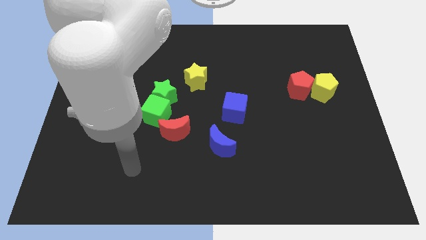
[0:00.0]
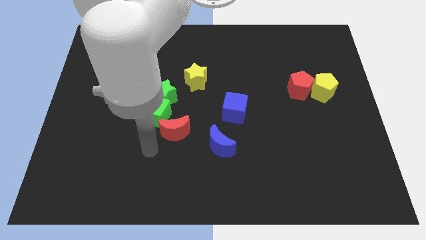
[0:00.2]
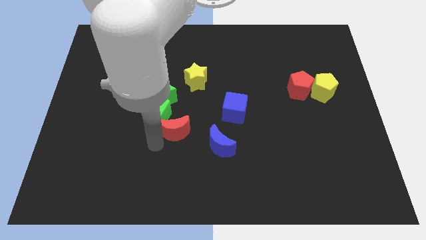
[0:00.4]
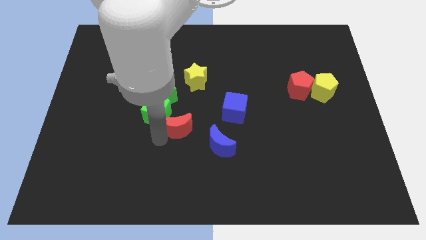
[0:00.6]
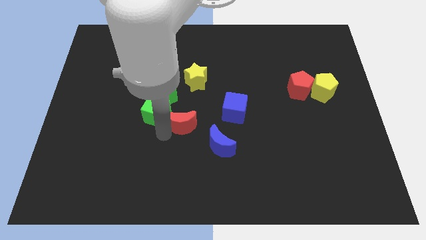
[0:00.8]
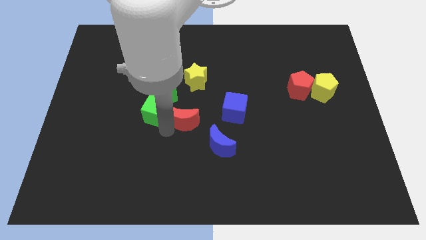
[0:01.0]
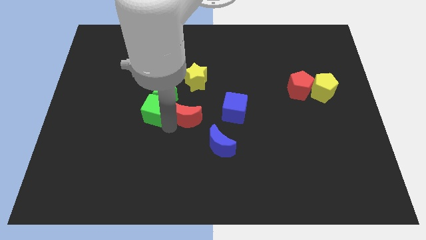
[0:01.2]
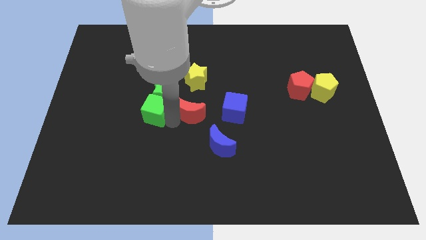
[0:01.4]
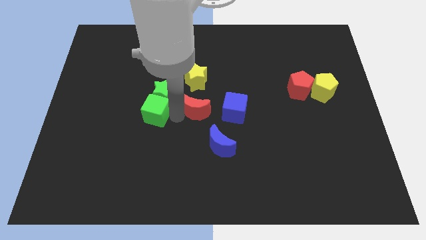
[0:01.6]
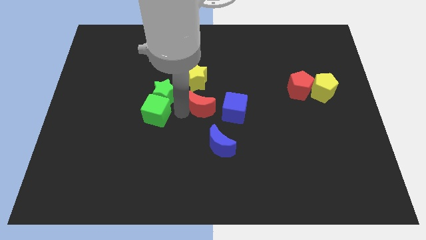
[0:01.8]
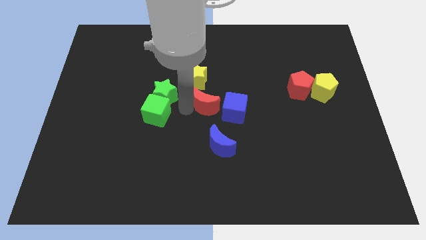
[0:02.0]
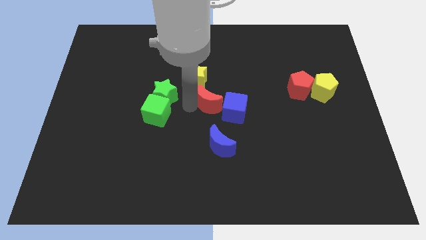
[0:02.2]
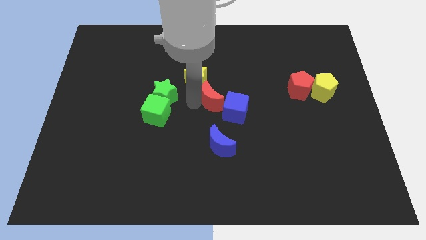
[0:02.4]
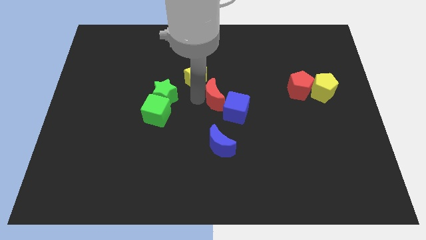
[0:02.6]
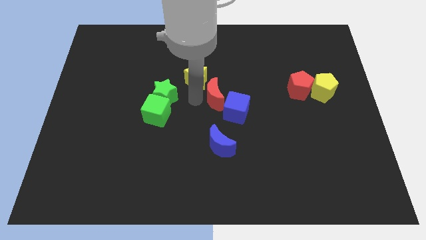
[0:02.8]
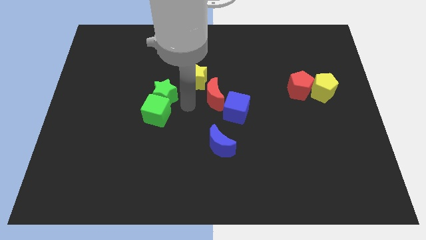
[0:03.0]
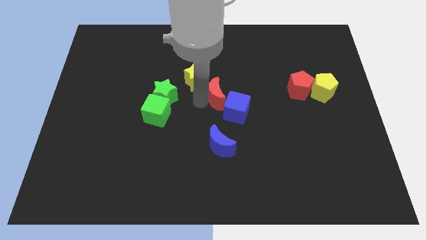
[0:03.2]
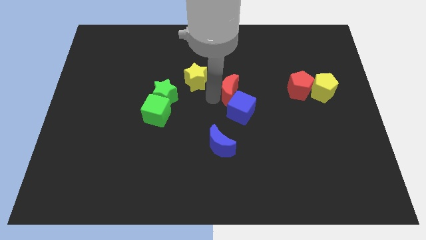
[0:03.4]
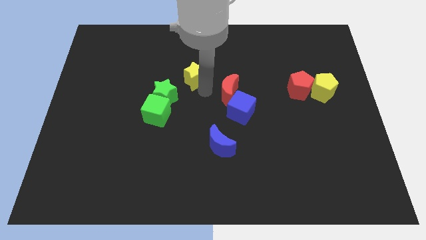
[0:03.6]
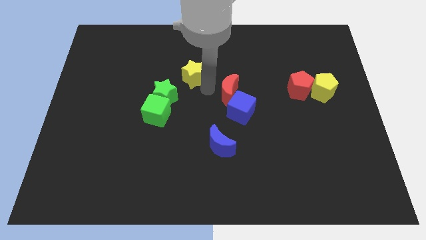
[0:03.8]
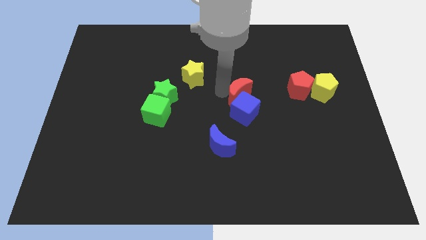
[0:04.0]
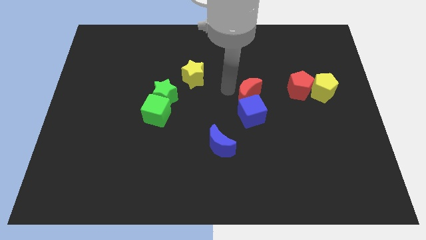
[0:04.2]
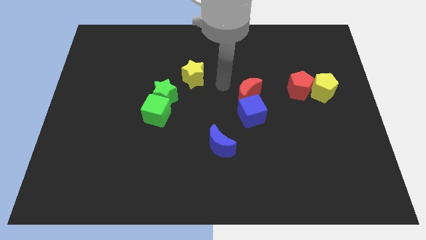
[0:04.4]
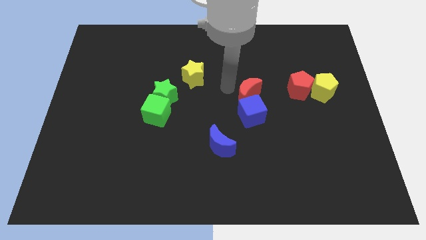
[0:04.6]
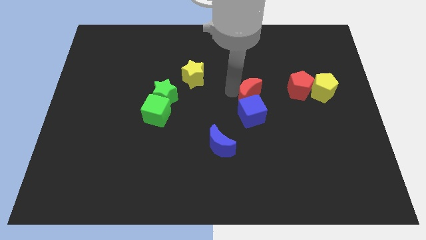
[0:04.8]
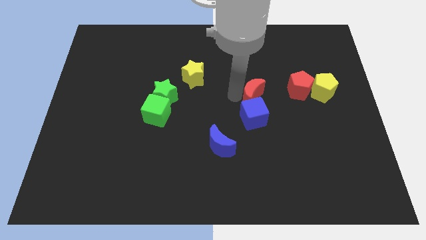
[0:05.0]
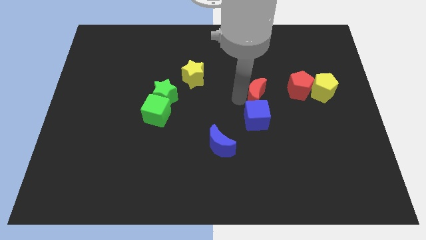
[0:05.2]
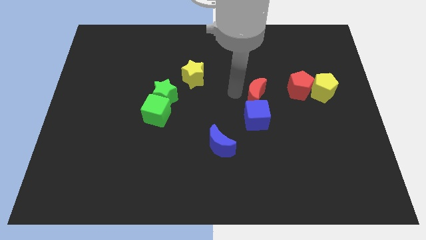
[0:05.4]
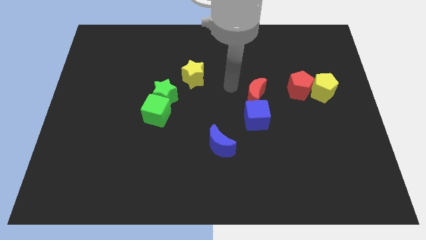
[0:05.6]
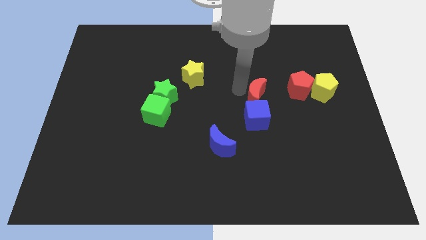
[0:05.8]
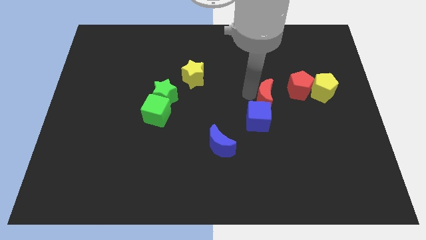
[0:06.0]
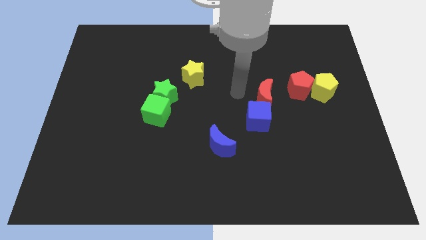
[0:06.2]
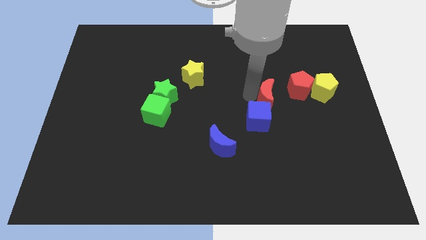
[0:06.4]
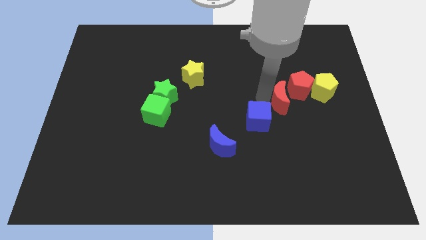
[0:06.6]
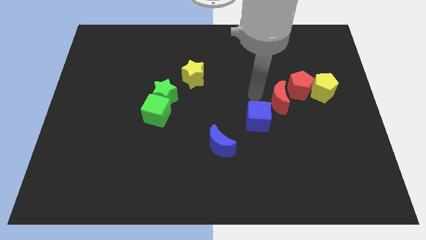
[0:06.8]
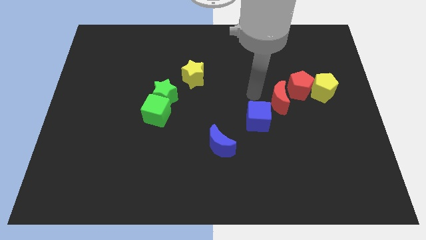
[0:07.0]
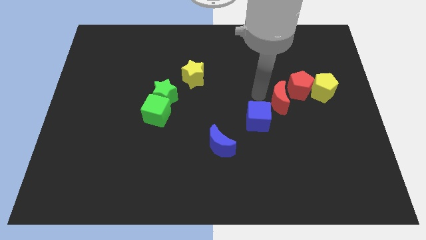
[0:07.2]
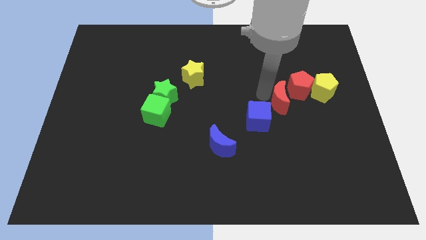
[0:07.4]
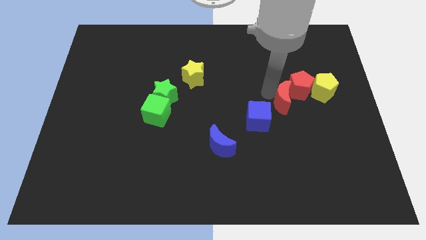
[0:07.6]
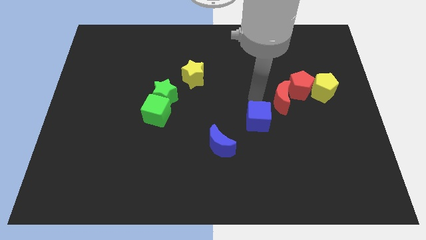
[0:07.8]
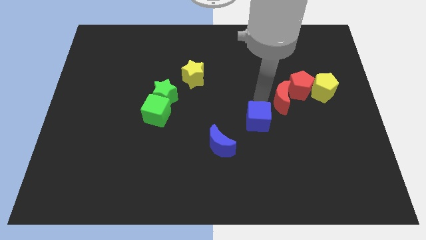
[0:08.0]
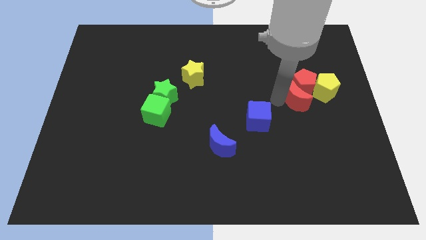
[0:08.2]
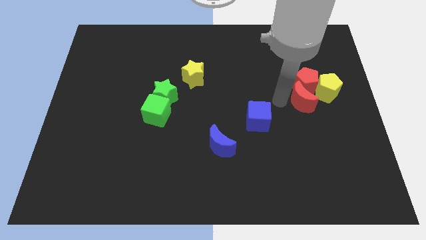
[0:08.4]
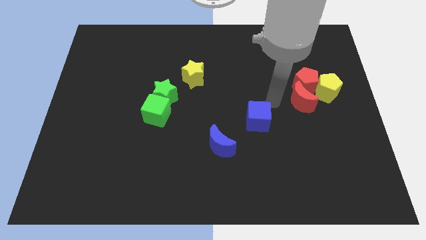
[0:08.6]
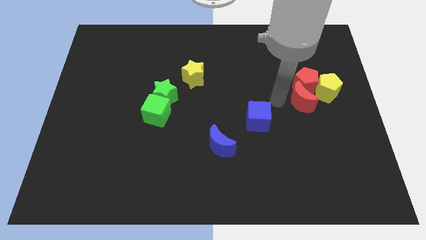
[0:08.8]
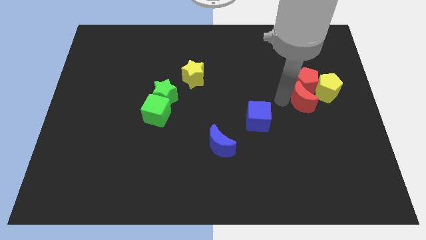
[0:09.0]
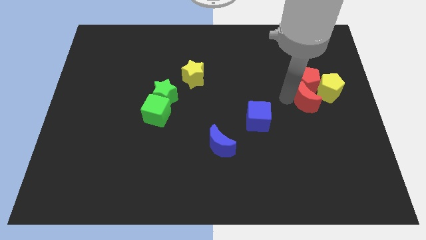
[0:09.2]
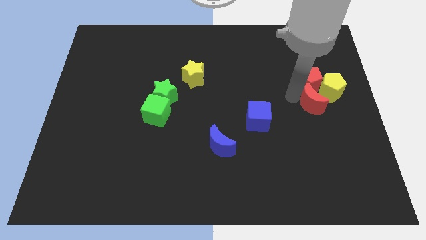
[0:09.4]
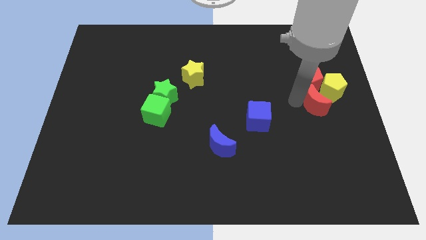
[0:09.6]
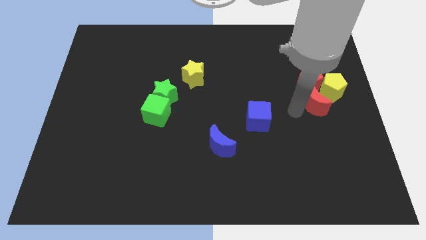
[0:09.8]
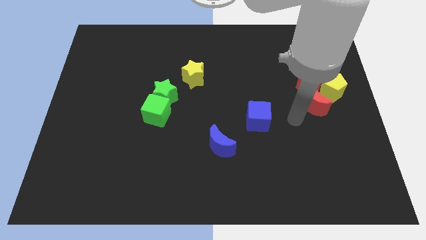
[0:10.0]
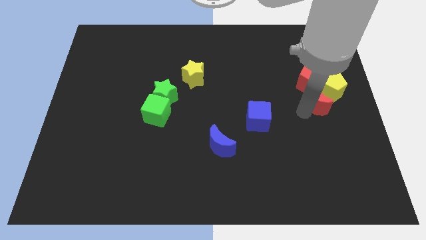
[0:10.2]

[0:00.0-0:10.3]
put the red moon close to the yellow pentagon

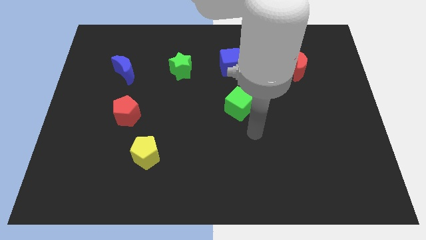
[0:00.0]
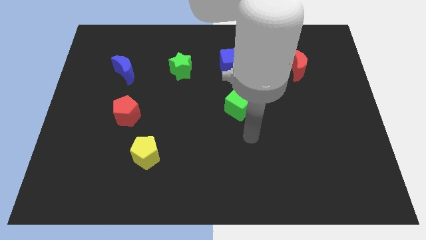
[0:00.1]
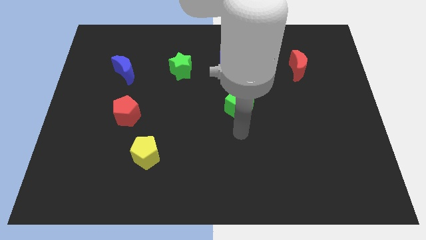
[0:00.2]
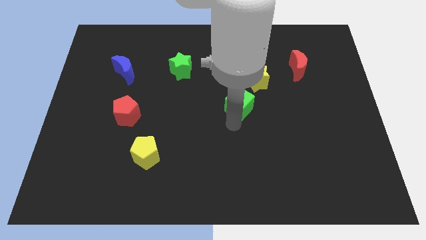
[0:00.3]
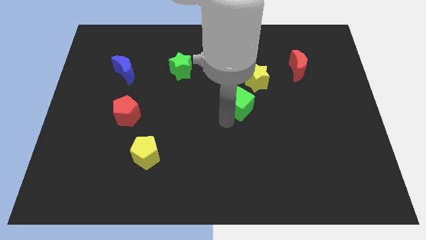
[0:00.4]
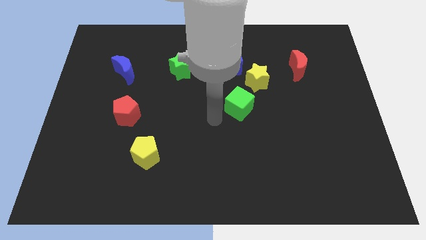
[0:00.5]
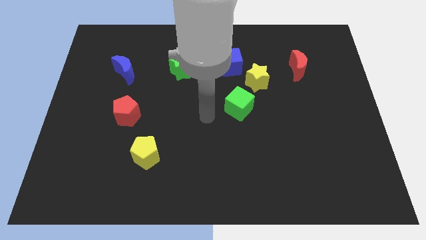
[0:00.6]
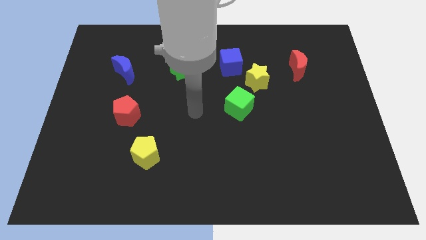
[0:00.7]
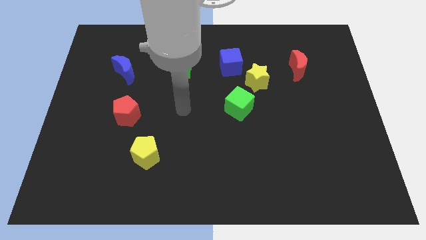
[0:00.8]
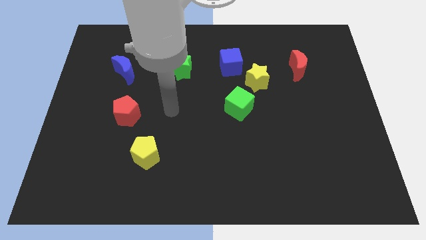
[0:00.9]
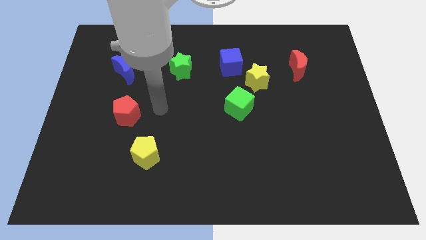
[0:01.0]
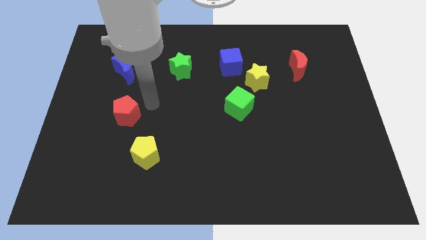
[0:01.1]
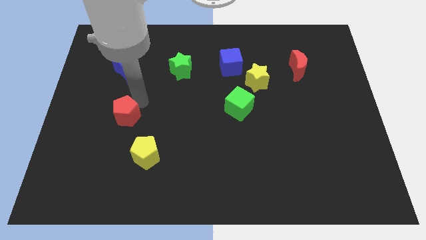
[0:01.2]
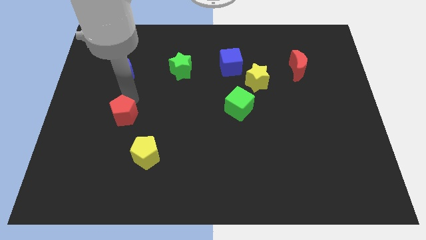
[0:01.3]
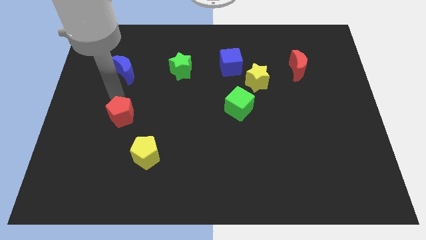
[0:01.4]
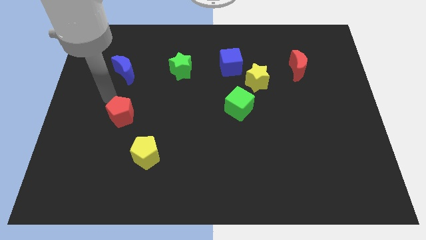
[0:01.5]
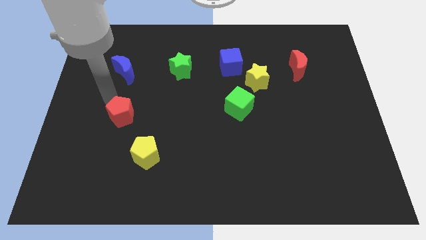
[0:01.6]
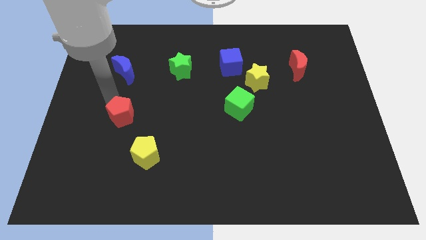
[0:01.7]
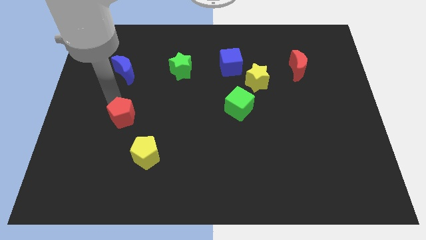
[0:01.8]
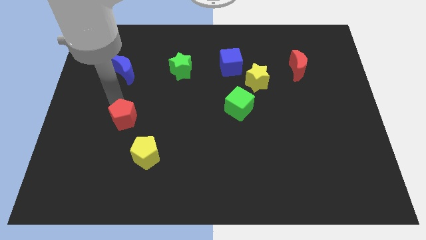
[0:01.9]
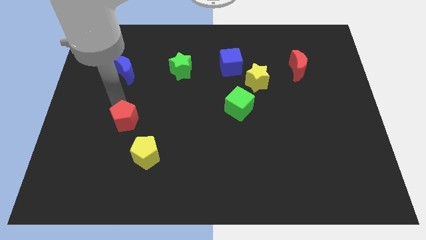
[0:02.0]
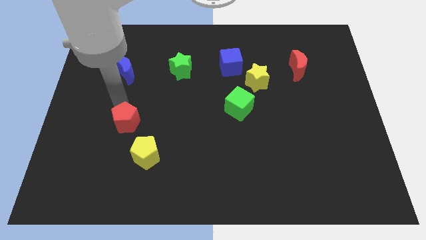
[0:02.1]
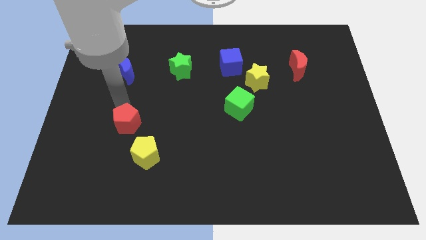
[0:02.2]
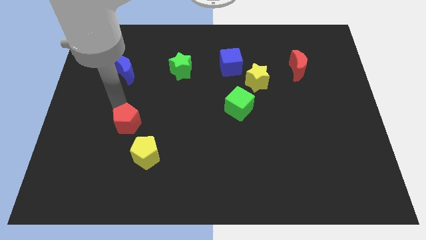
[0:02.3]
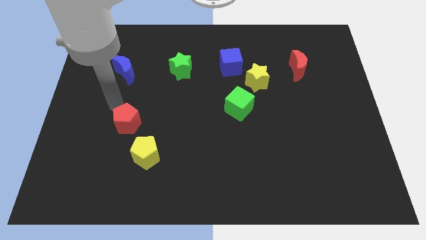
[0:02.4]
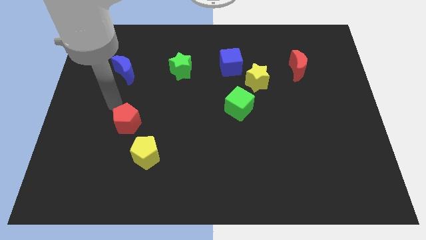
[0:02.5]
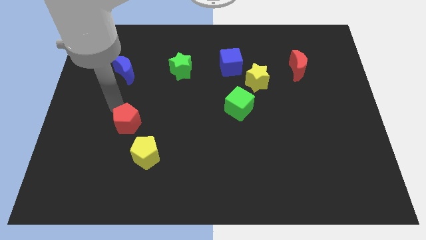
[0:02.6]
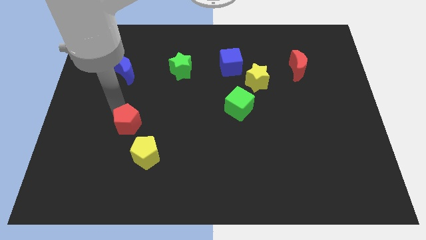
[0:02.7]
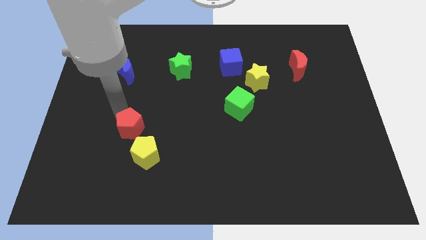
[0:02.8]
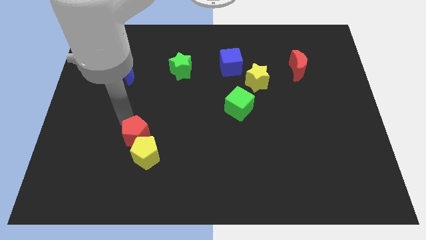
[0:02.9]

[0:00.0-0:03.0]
put the red pentagon next to the yellow pentagon
